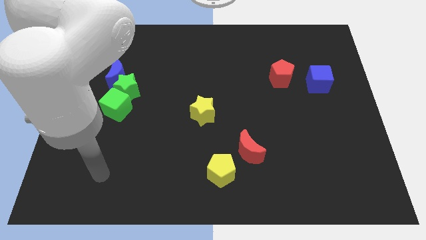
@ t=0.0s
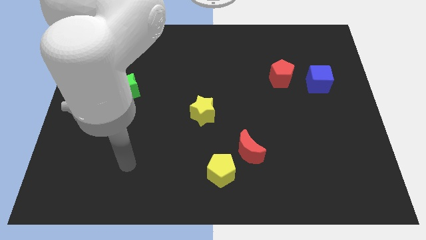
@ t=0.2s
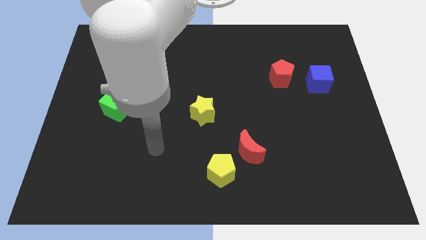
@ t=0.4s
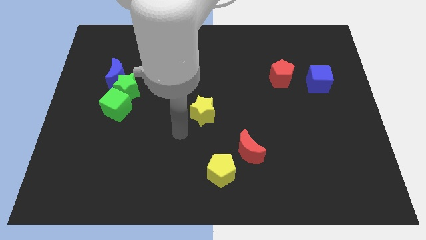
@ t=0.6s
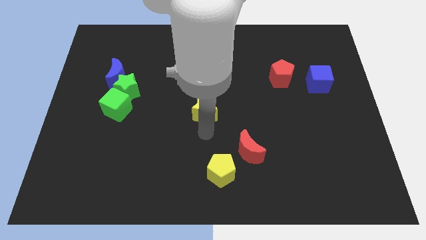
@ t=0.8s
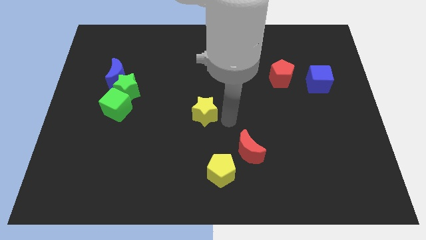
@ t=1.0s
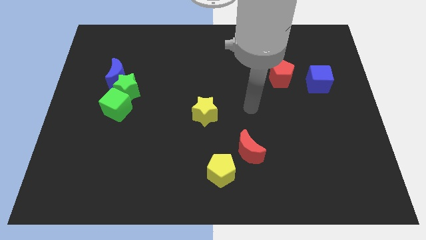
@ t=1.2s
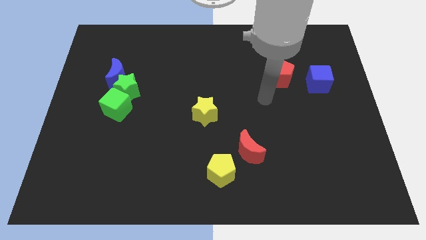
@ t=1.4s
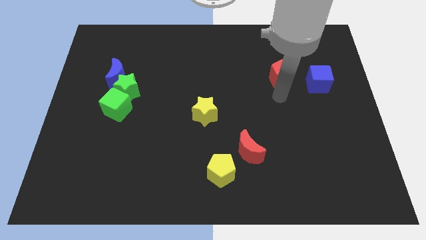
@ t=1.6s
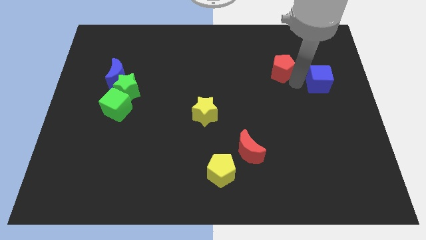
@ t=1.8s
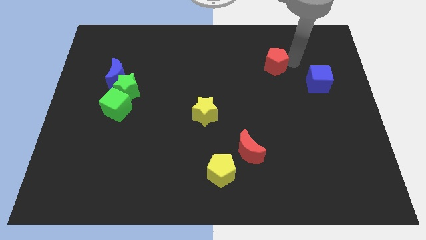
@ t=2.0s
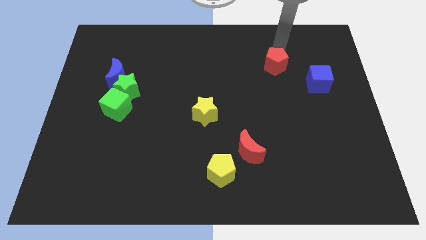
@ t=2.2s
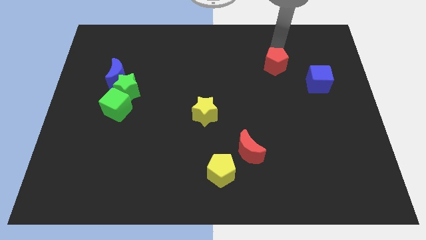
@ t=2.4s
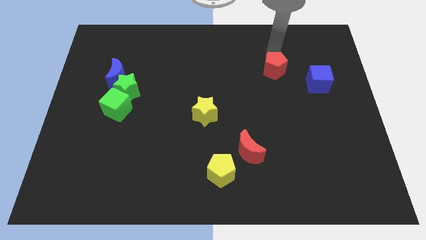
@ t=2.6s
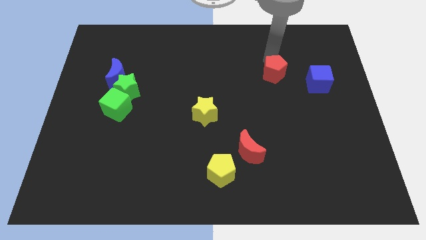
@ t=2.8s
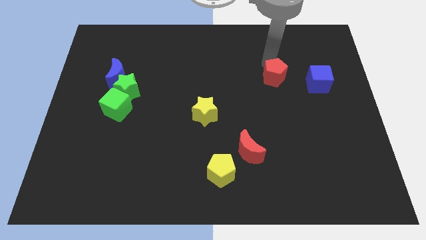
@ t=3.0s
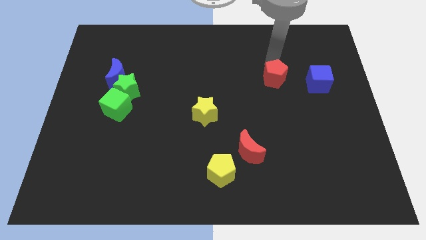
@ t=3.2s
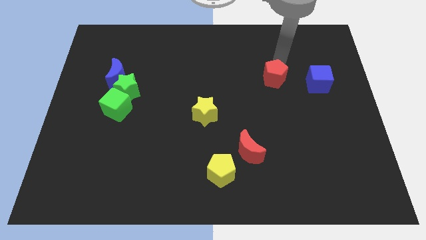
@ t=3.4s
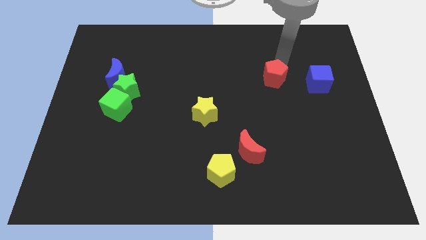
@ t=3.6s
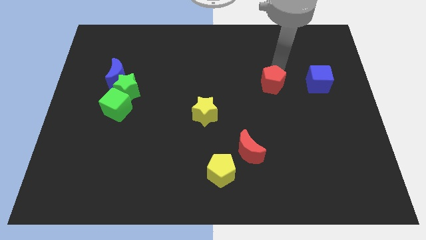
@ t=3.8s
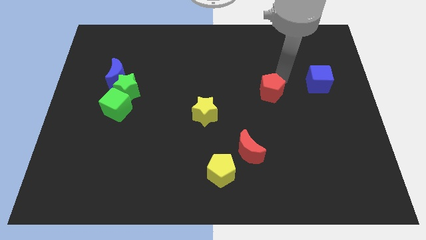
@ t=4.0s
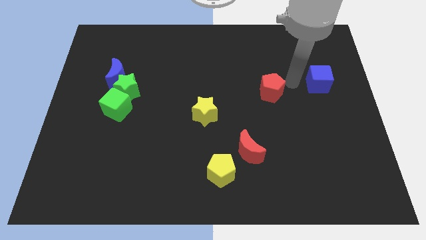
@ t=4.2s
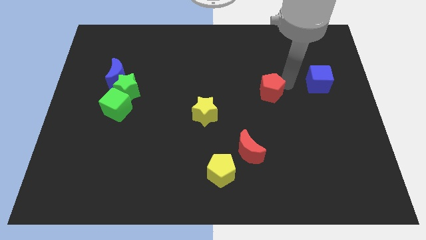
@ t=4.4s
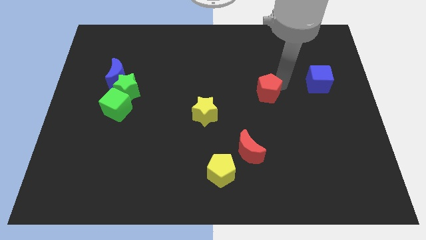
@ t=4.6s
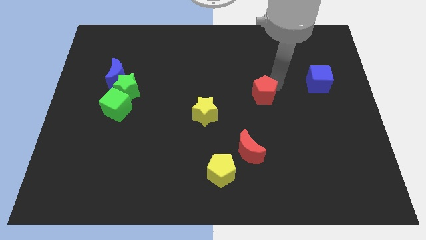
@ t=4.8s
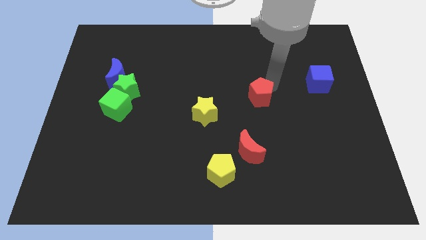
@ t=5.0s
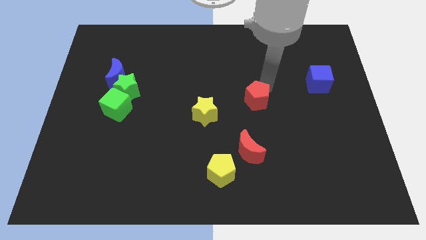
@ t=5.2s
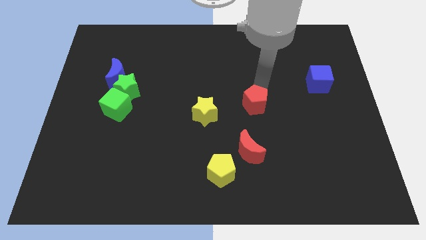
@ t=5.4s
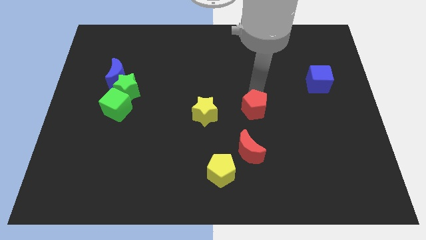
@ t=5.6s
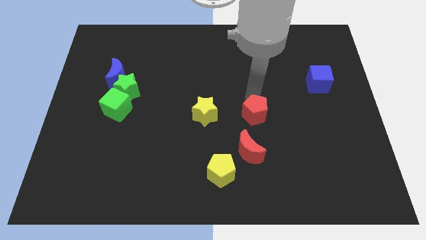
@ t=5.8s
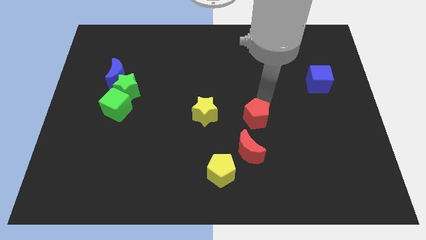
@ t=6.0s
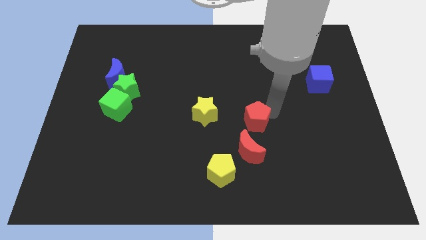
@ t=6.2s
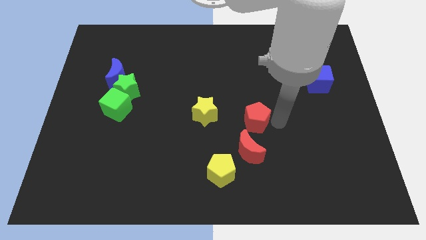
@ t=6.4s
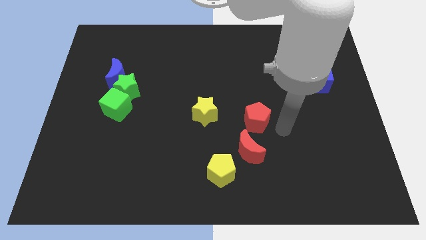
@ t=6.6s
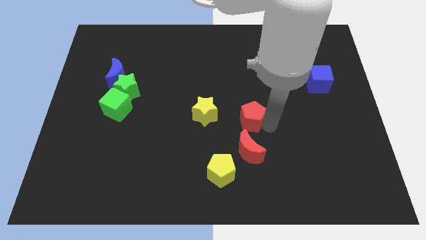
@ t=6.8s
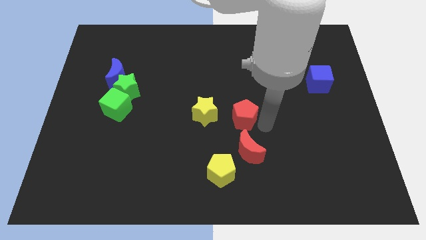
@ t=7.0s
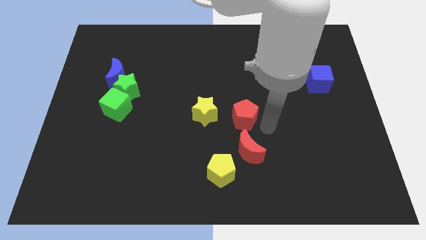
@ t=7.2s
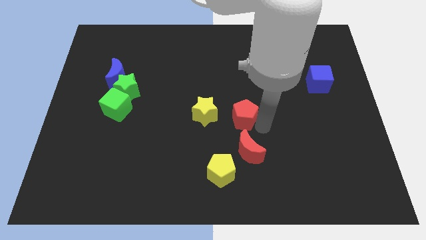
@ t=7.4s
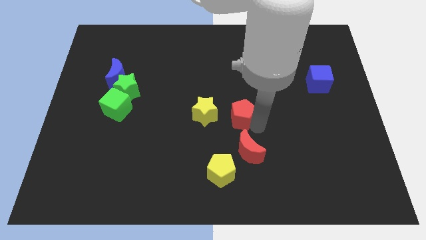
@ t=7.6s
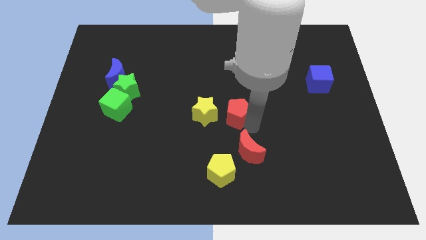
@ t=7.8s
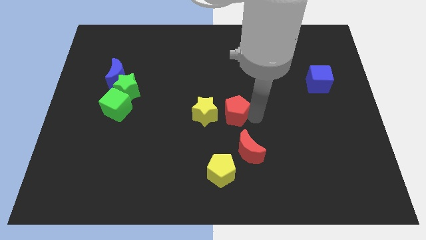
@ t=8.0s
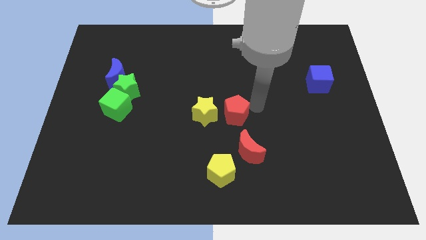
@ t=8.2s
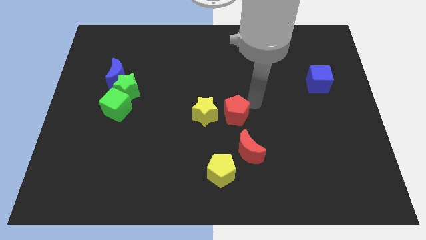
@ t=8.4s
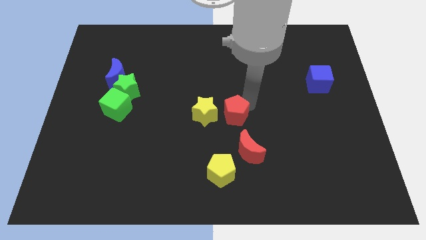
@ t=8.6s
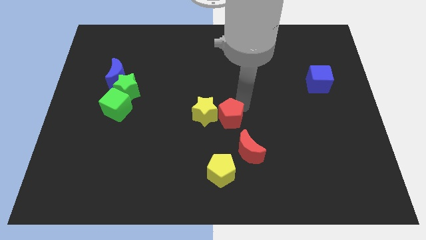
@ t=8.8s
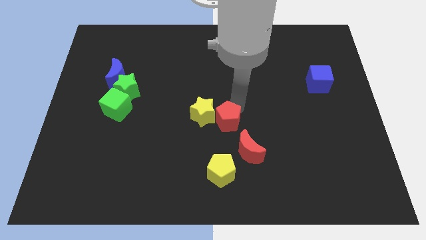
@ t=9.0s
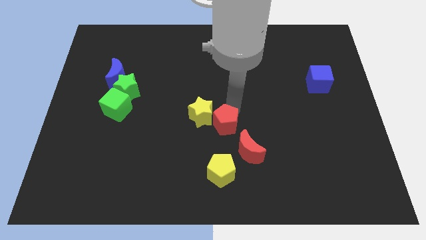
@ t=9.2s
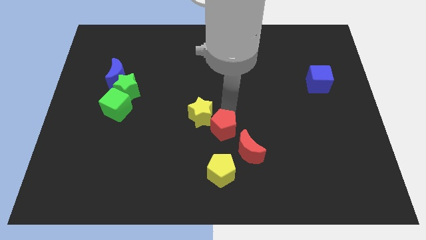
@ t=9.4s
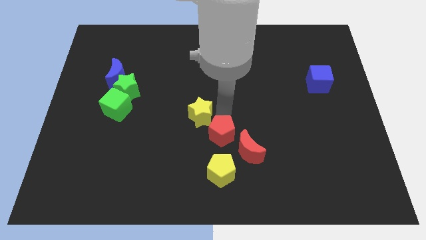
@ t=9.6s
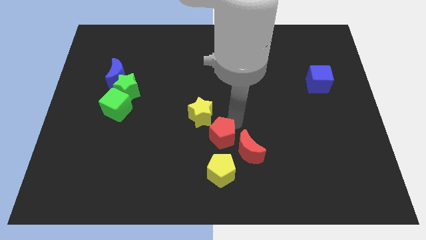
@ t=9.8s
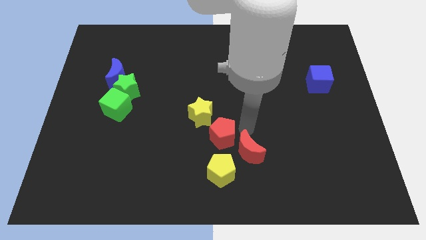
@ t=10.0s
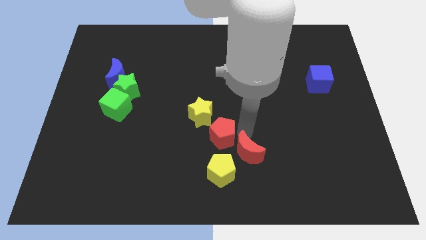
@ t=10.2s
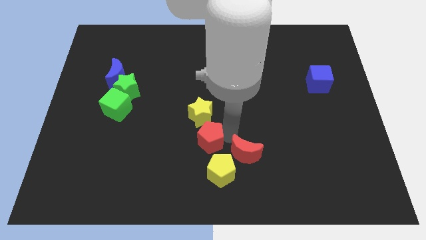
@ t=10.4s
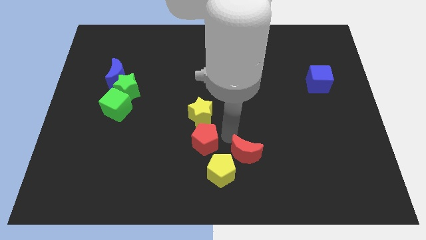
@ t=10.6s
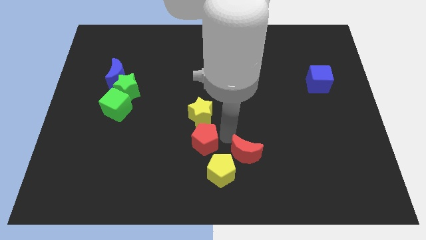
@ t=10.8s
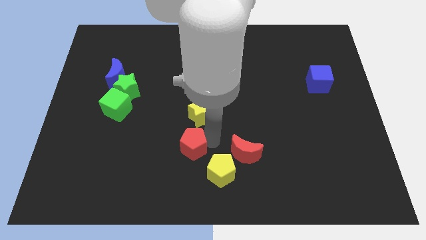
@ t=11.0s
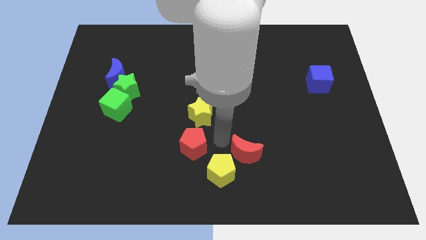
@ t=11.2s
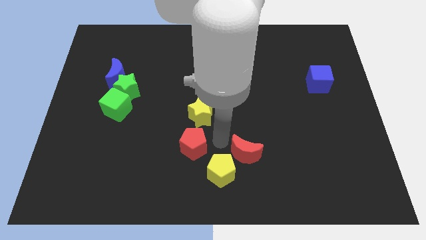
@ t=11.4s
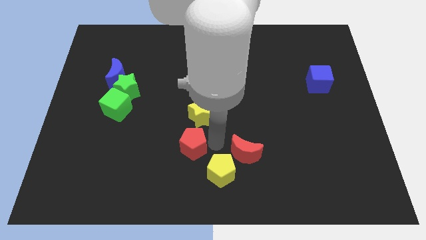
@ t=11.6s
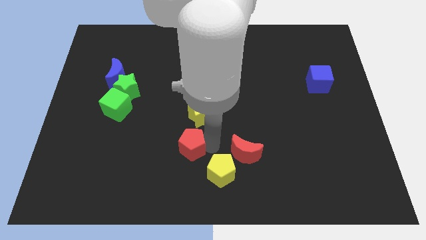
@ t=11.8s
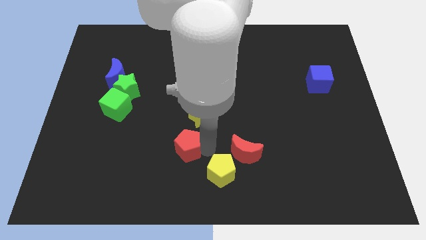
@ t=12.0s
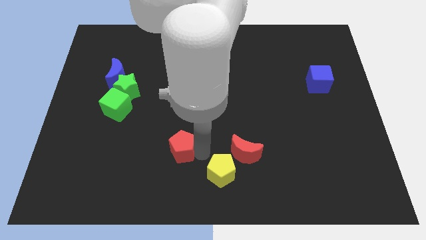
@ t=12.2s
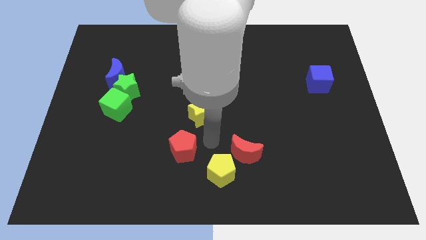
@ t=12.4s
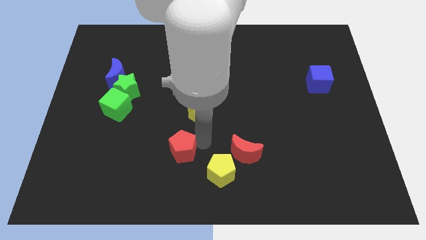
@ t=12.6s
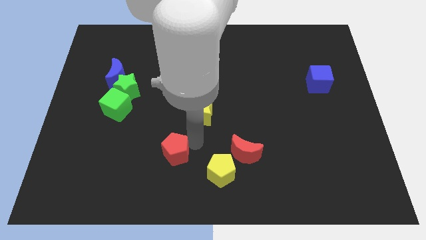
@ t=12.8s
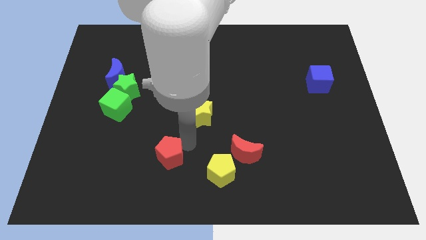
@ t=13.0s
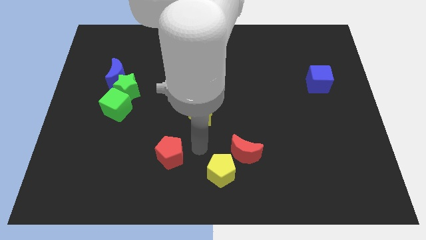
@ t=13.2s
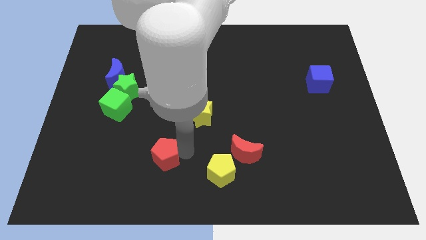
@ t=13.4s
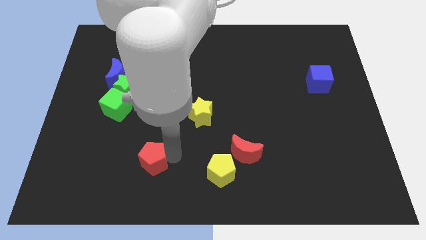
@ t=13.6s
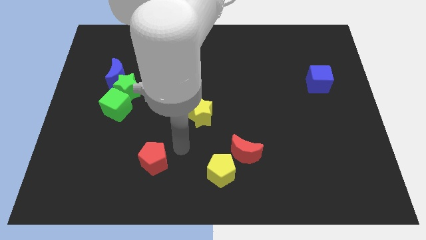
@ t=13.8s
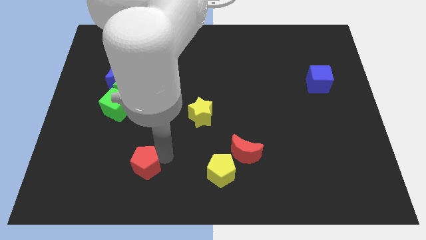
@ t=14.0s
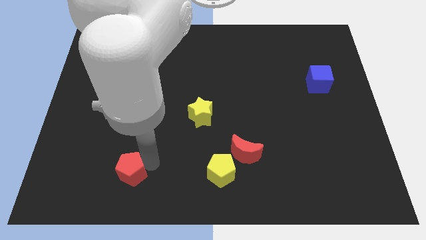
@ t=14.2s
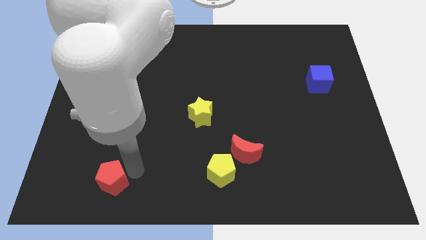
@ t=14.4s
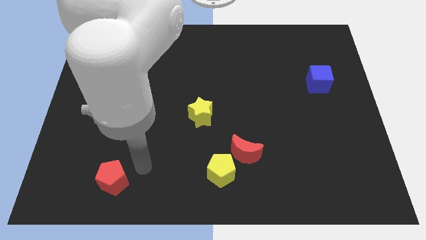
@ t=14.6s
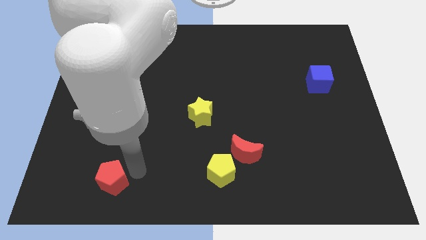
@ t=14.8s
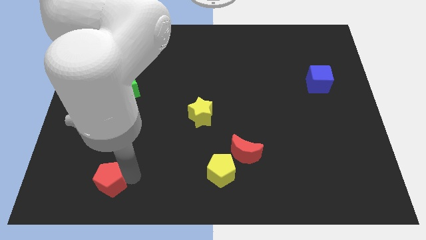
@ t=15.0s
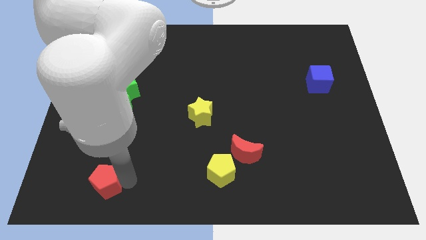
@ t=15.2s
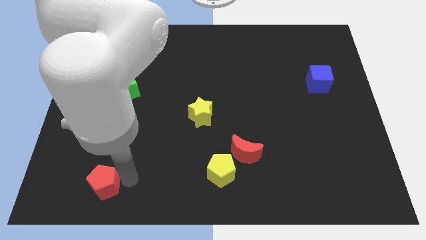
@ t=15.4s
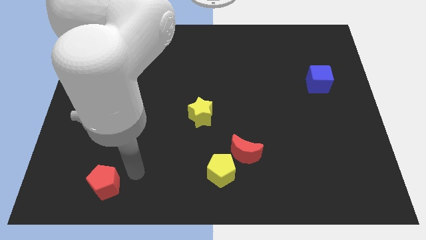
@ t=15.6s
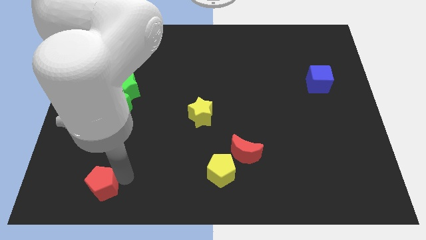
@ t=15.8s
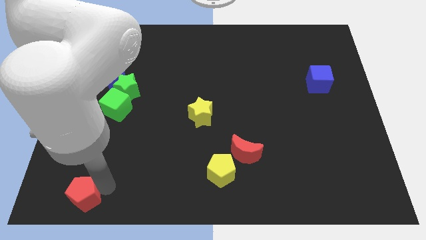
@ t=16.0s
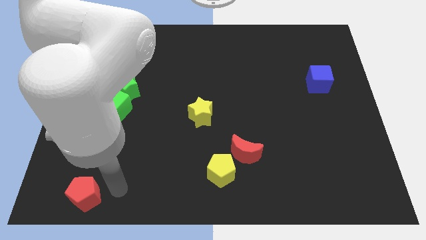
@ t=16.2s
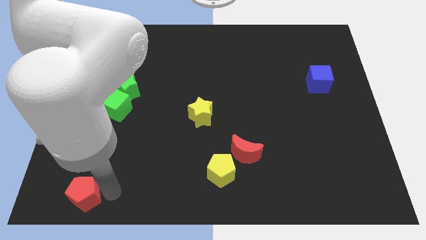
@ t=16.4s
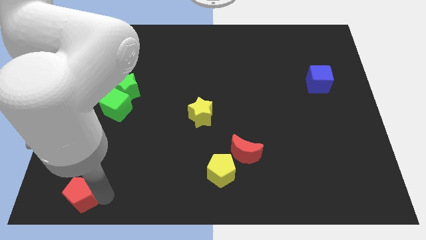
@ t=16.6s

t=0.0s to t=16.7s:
put the red pentagon to the lower left corner
